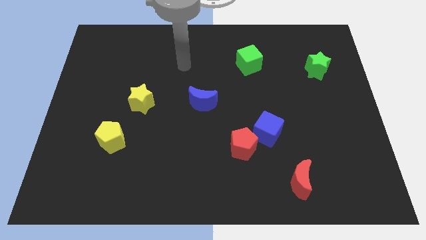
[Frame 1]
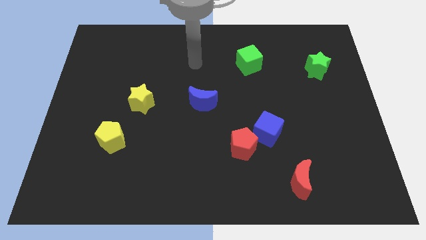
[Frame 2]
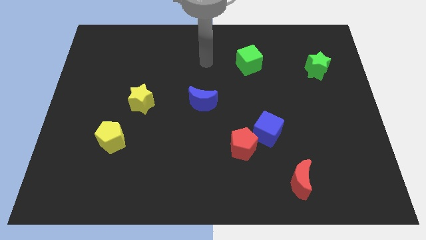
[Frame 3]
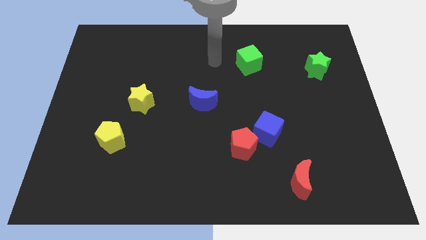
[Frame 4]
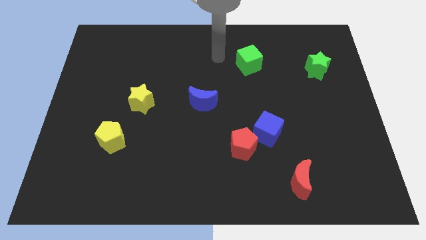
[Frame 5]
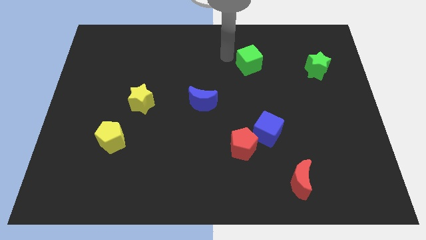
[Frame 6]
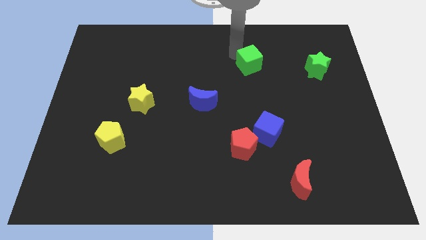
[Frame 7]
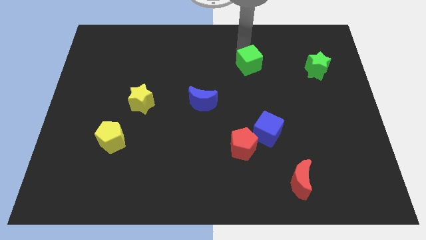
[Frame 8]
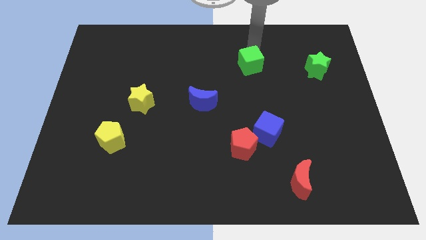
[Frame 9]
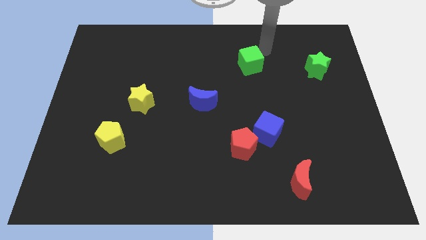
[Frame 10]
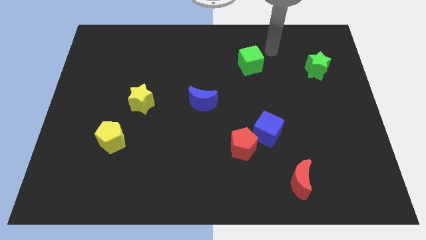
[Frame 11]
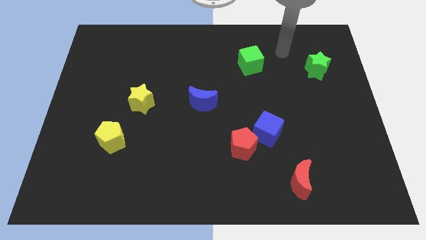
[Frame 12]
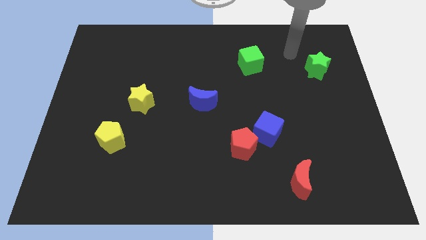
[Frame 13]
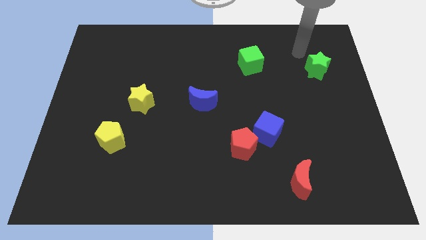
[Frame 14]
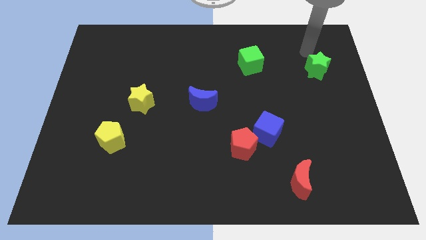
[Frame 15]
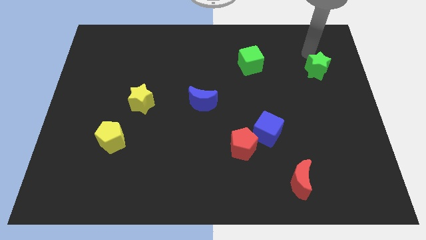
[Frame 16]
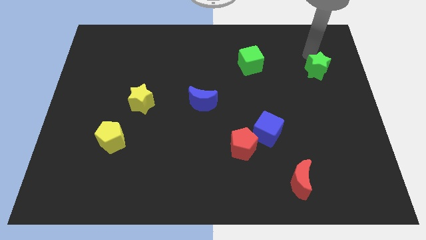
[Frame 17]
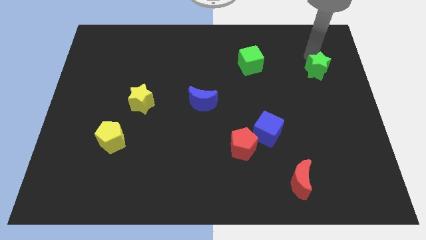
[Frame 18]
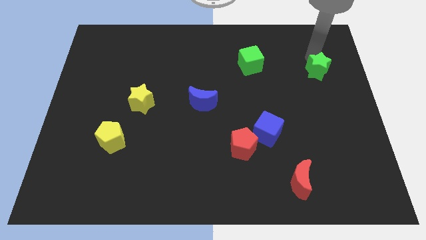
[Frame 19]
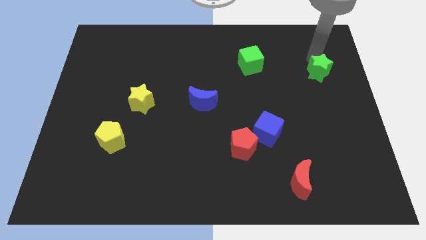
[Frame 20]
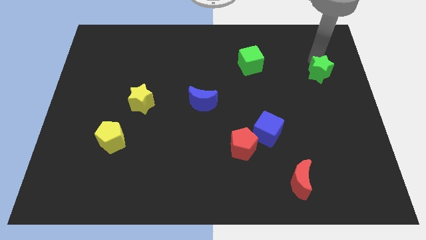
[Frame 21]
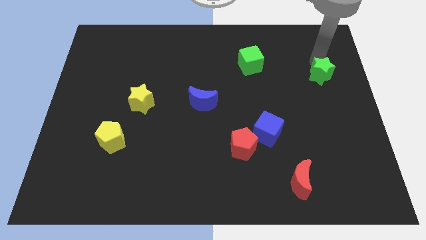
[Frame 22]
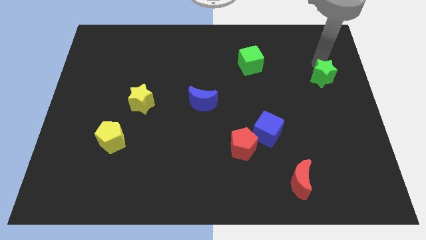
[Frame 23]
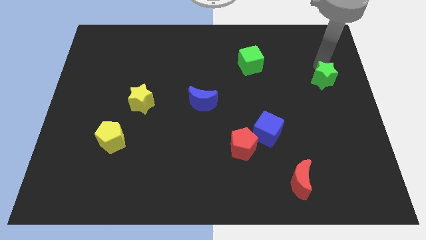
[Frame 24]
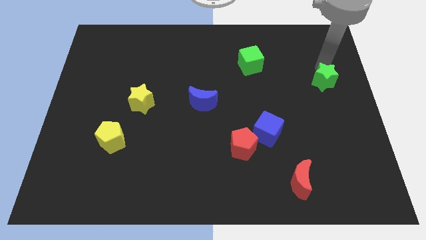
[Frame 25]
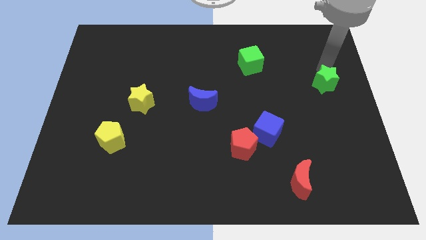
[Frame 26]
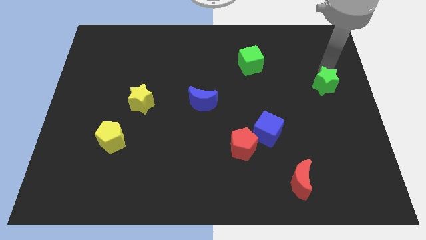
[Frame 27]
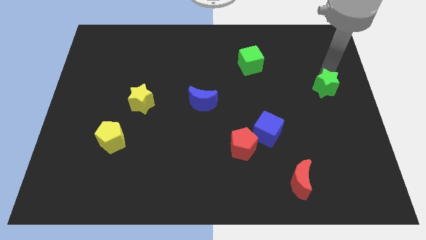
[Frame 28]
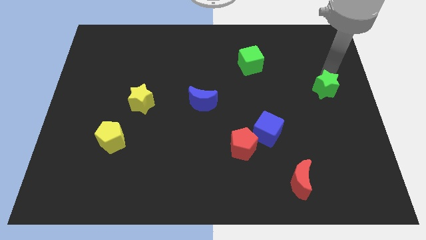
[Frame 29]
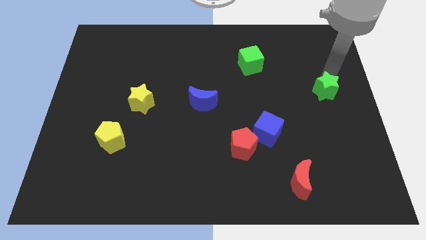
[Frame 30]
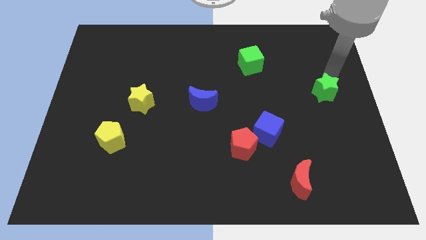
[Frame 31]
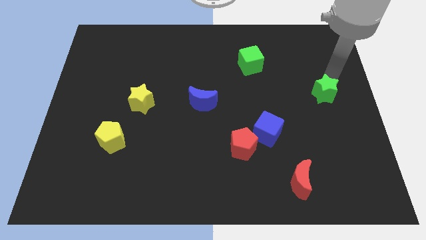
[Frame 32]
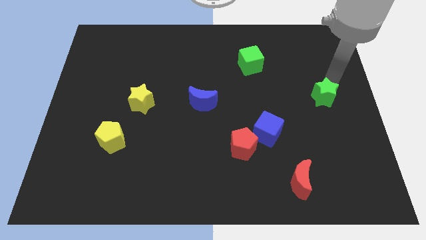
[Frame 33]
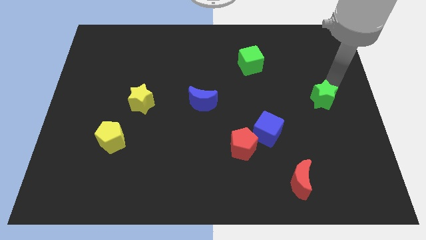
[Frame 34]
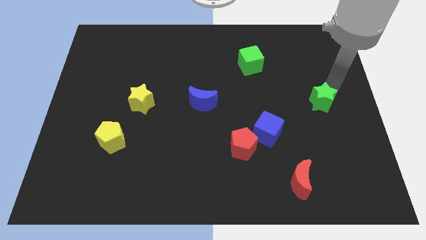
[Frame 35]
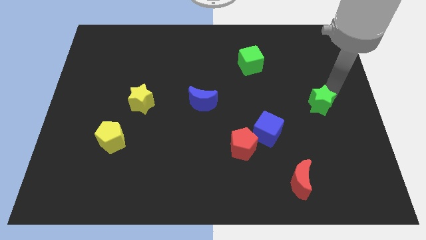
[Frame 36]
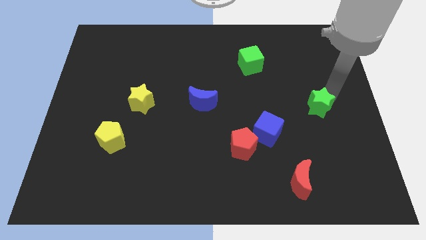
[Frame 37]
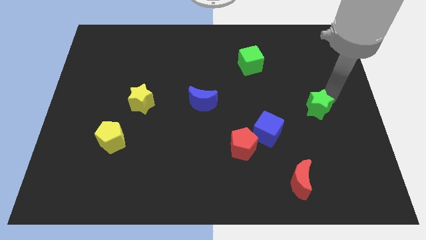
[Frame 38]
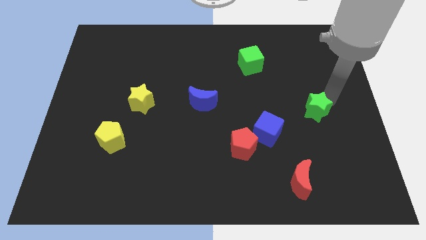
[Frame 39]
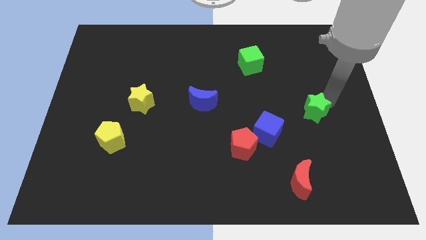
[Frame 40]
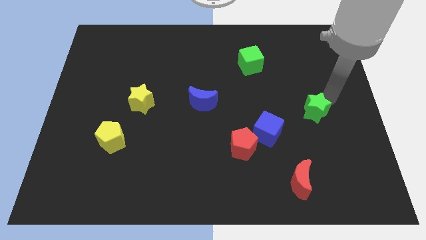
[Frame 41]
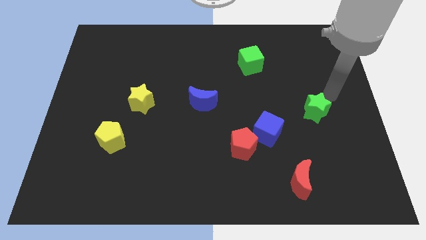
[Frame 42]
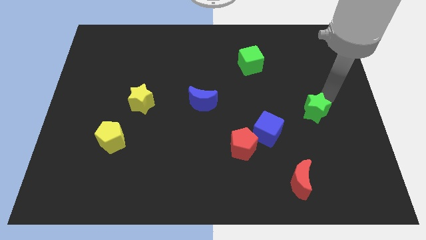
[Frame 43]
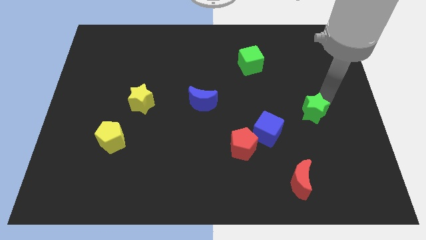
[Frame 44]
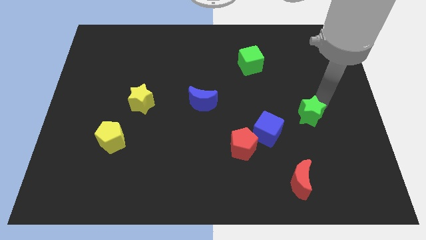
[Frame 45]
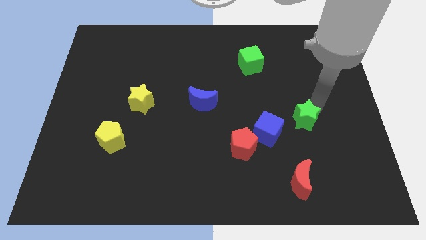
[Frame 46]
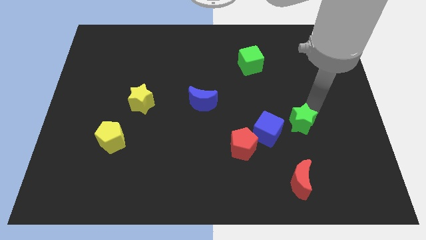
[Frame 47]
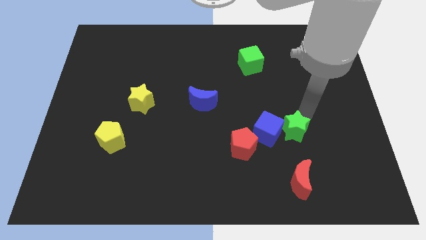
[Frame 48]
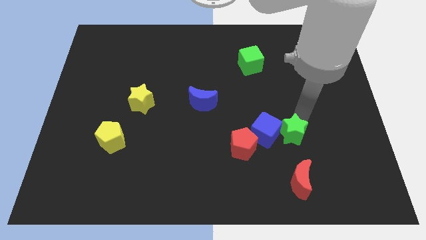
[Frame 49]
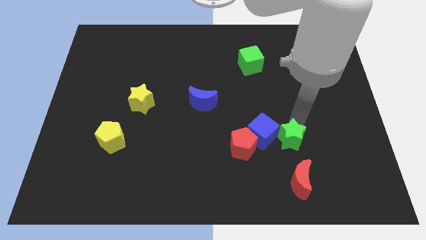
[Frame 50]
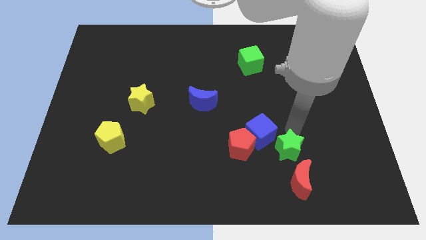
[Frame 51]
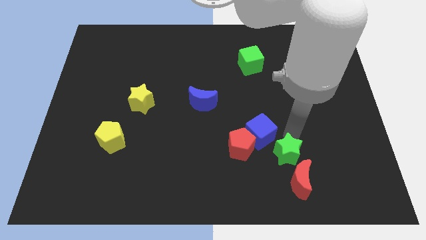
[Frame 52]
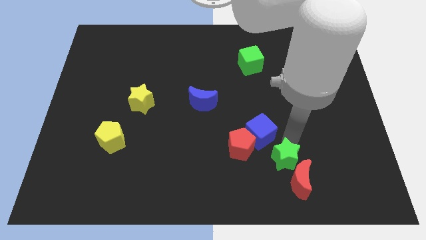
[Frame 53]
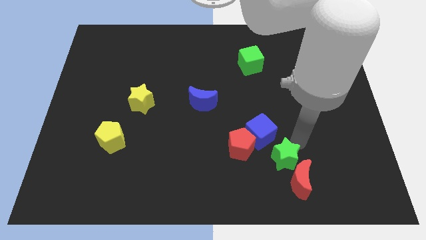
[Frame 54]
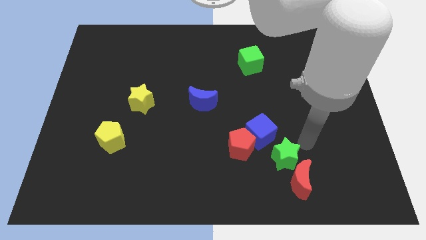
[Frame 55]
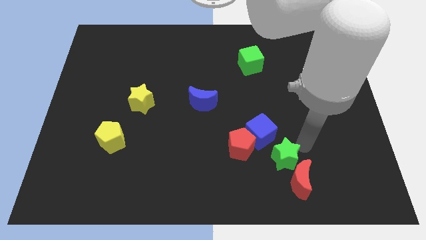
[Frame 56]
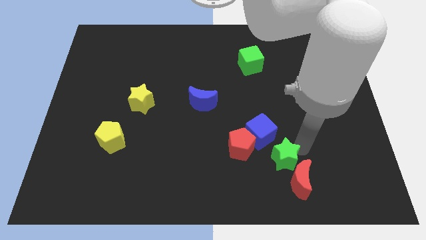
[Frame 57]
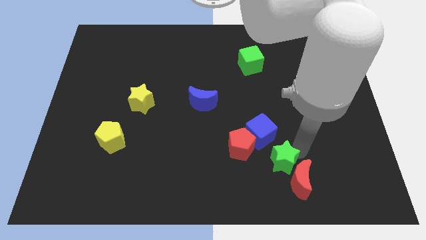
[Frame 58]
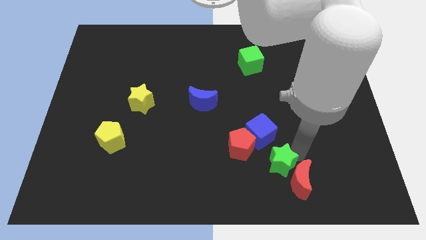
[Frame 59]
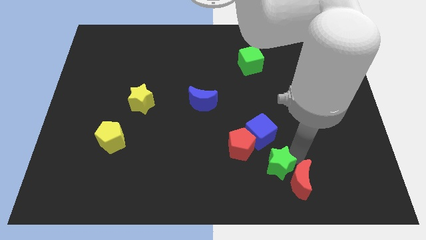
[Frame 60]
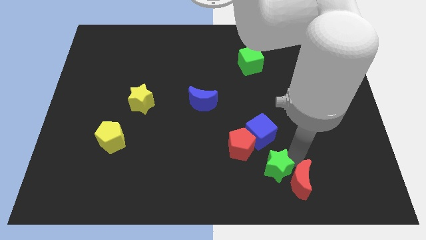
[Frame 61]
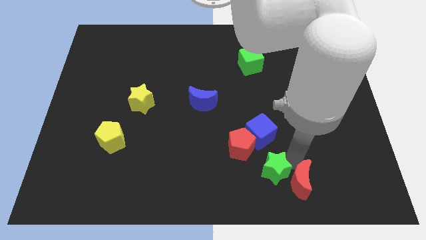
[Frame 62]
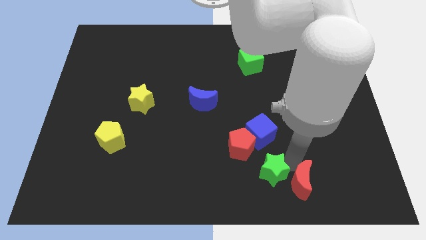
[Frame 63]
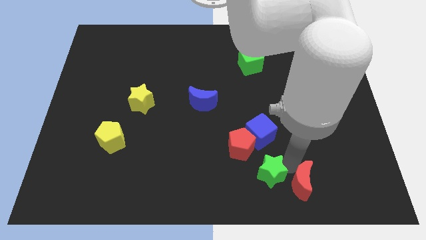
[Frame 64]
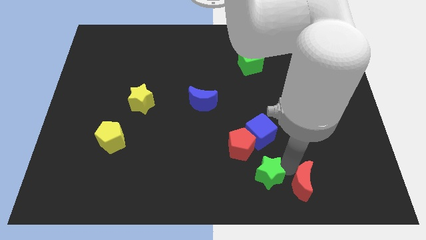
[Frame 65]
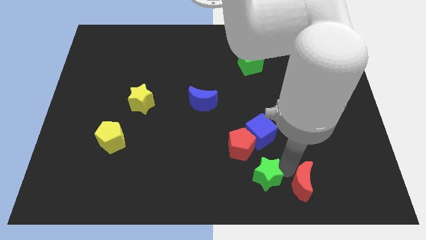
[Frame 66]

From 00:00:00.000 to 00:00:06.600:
push the green star to the bottom side

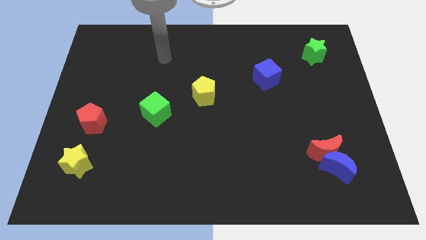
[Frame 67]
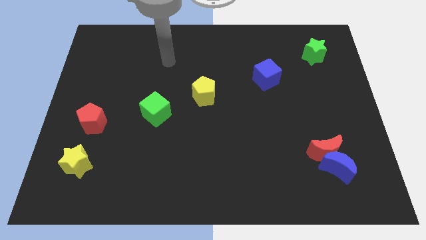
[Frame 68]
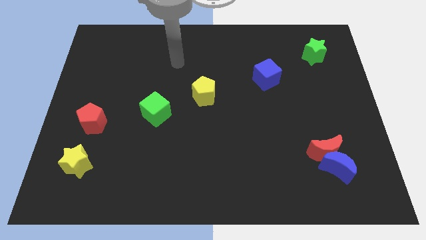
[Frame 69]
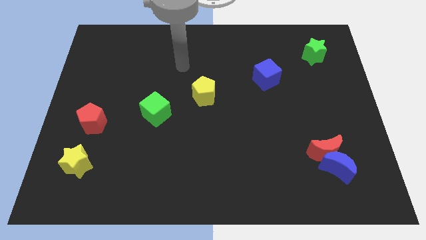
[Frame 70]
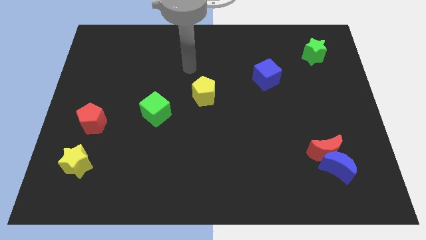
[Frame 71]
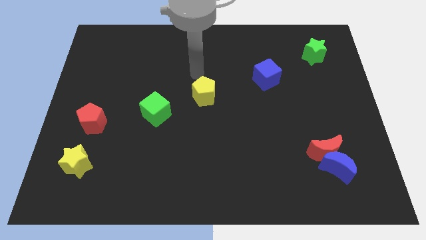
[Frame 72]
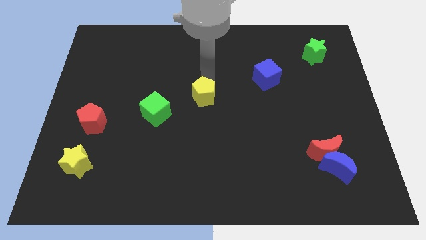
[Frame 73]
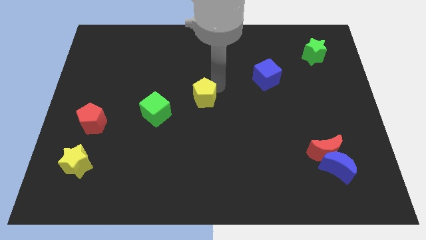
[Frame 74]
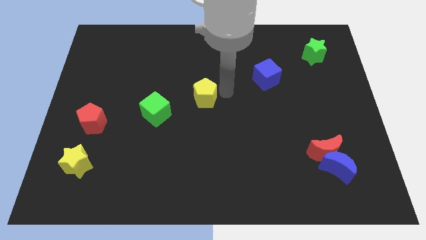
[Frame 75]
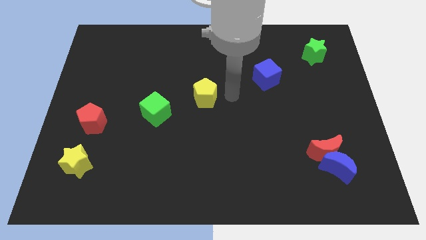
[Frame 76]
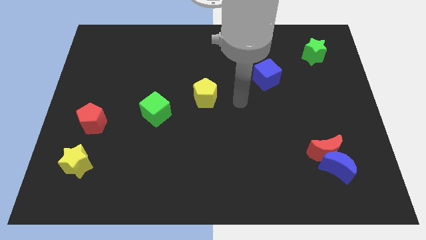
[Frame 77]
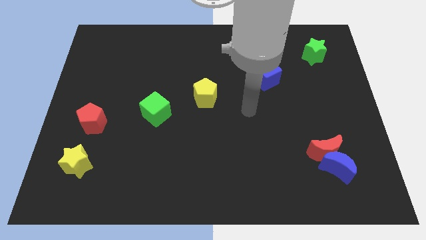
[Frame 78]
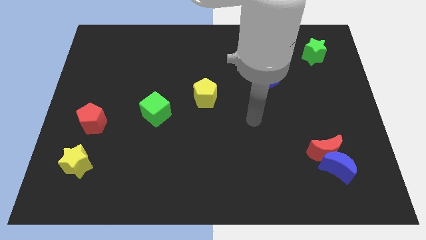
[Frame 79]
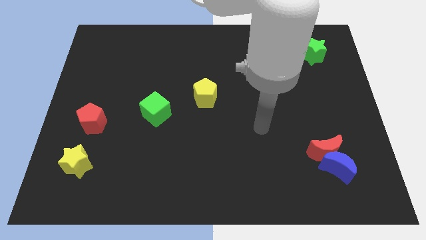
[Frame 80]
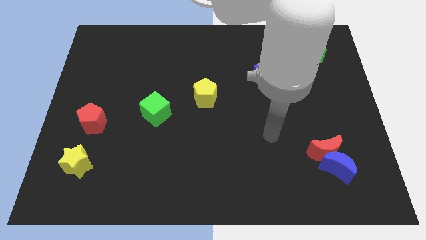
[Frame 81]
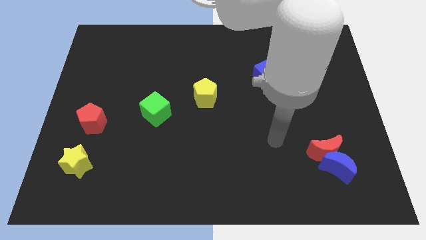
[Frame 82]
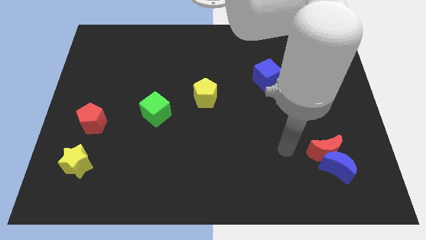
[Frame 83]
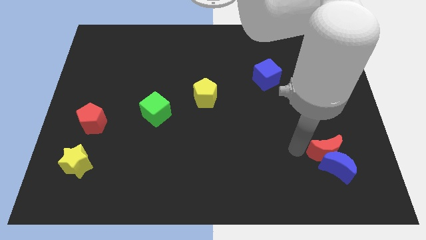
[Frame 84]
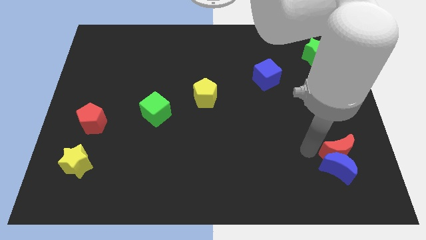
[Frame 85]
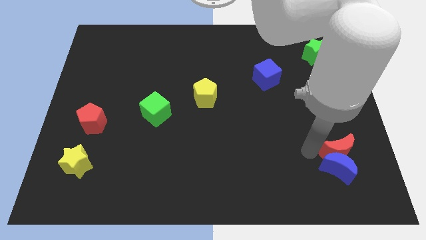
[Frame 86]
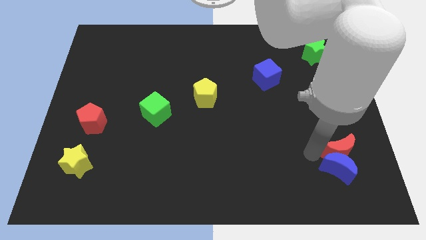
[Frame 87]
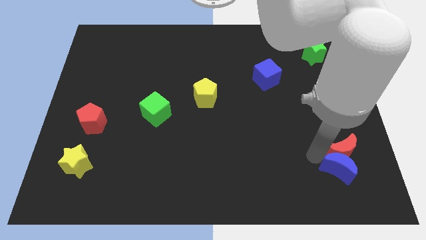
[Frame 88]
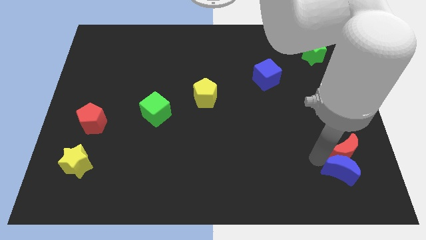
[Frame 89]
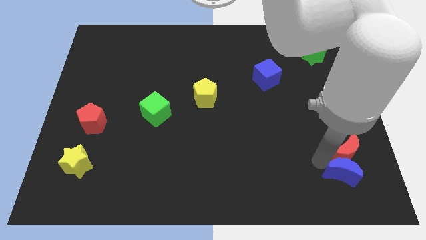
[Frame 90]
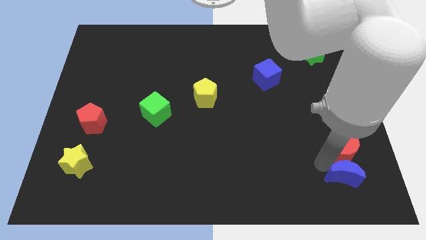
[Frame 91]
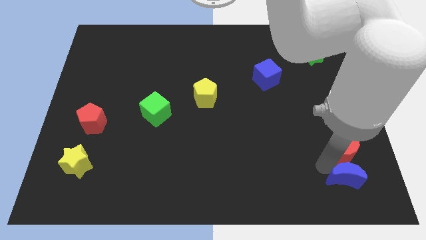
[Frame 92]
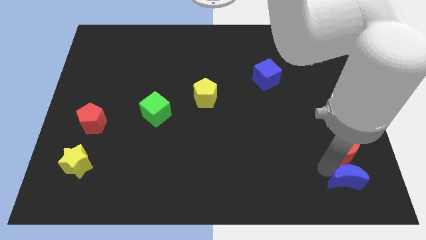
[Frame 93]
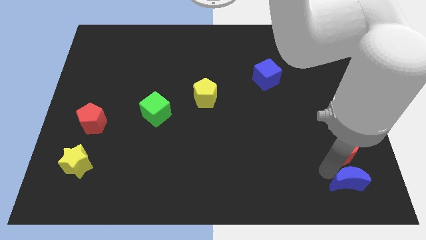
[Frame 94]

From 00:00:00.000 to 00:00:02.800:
put the blue moon to the bottom right corner
